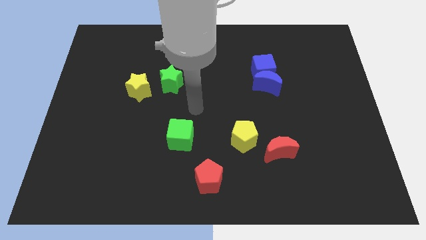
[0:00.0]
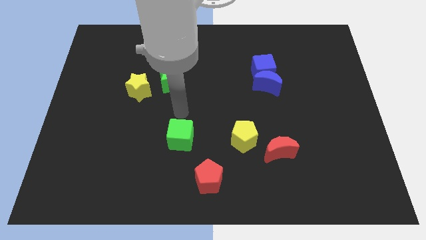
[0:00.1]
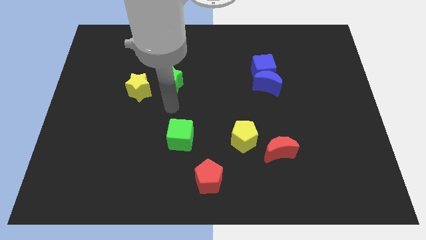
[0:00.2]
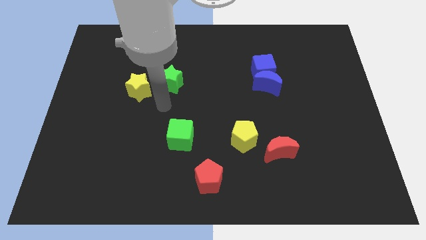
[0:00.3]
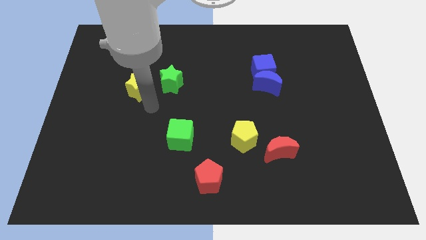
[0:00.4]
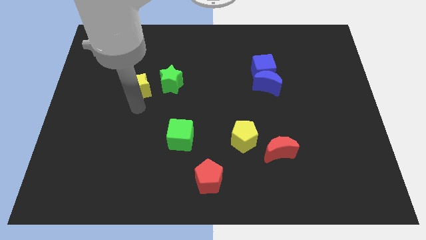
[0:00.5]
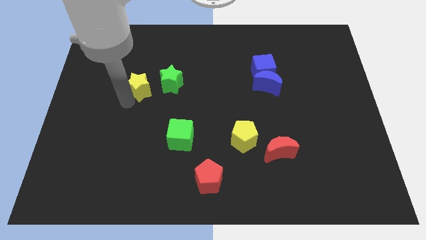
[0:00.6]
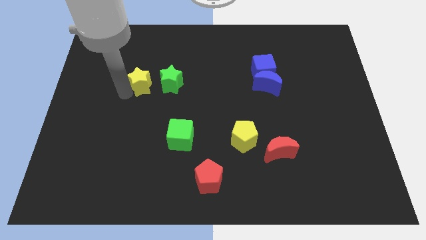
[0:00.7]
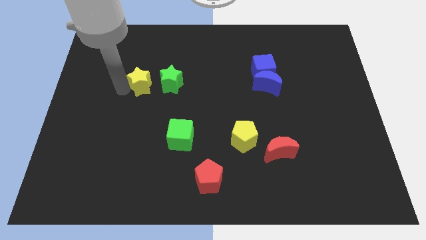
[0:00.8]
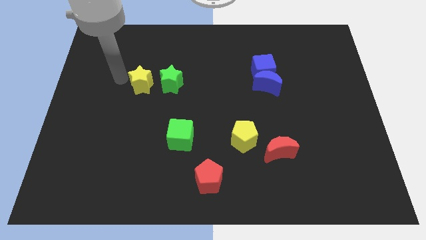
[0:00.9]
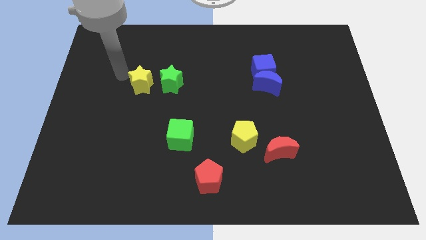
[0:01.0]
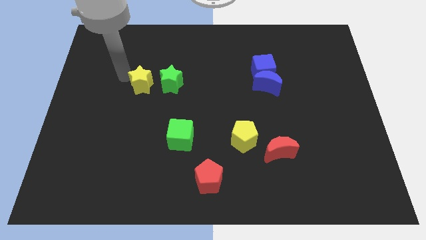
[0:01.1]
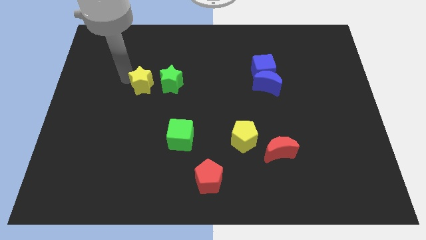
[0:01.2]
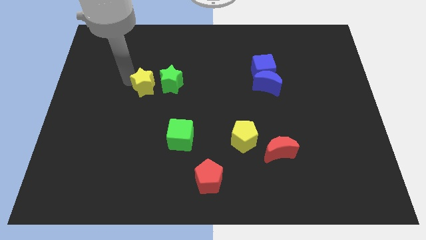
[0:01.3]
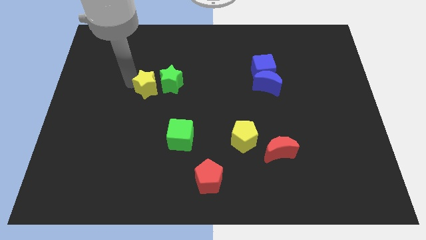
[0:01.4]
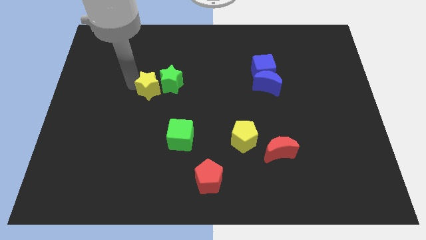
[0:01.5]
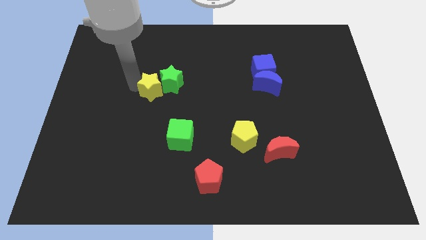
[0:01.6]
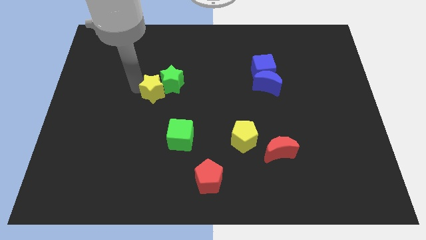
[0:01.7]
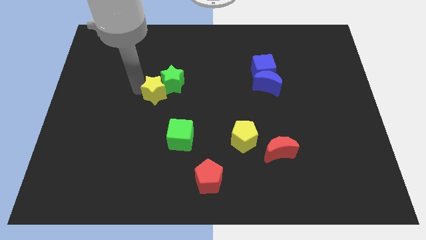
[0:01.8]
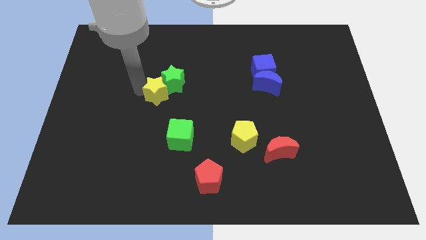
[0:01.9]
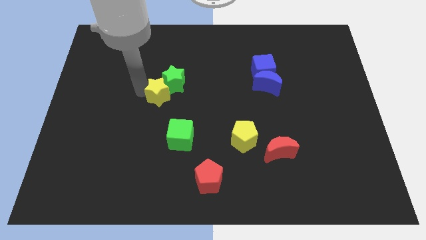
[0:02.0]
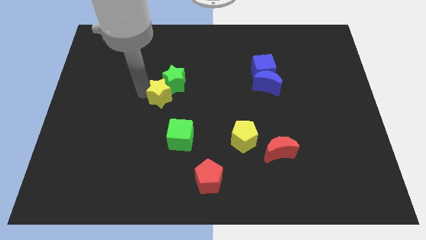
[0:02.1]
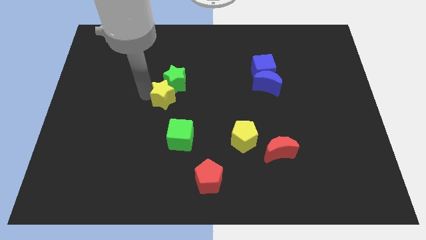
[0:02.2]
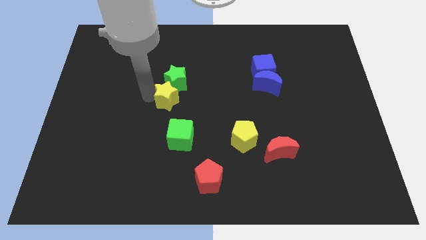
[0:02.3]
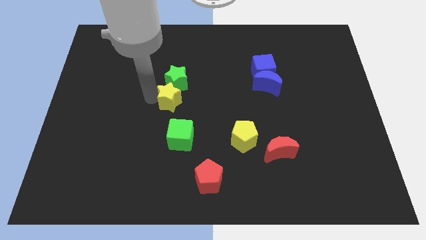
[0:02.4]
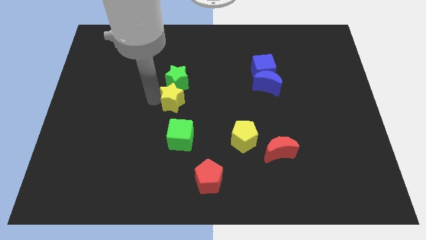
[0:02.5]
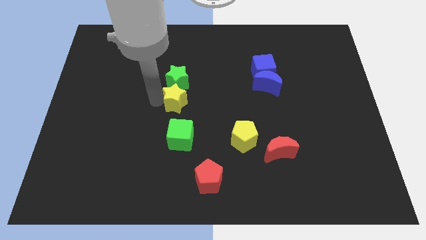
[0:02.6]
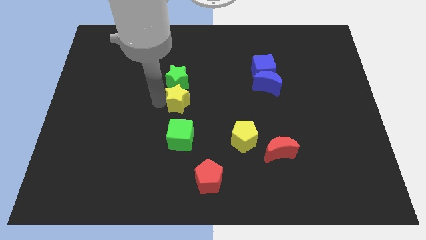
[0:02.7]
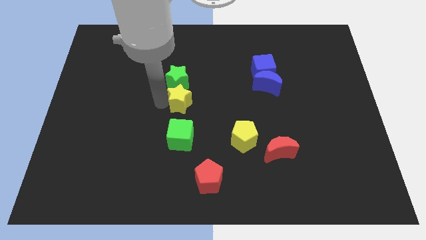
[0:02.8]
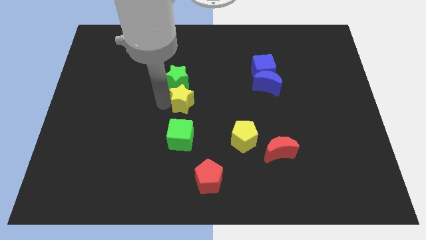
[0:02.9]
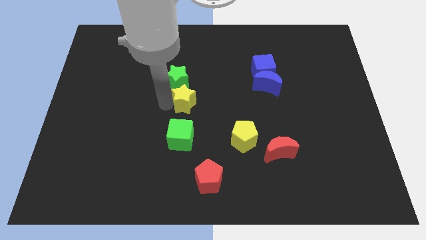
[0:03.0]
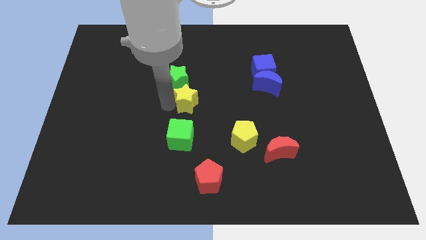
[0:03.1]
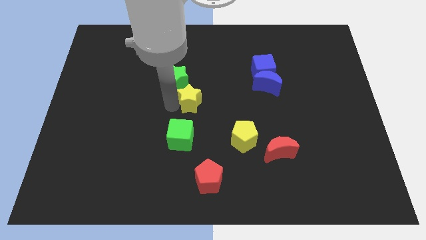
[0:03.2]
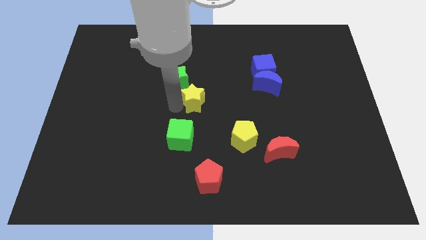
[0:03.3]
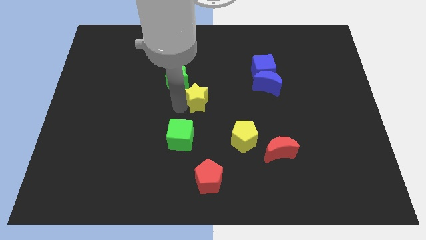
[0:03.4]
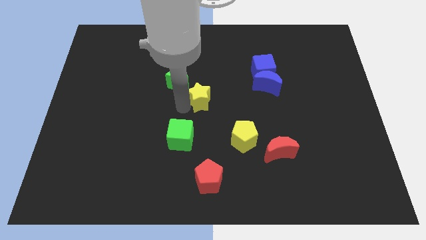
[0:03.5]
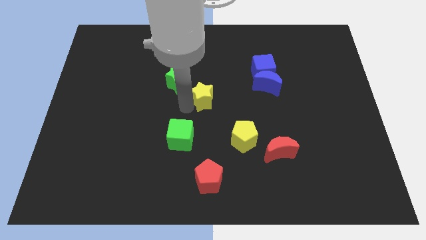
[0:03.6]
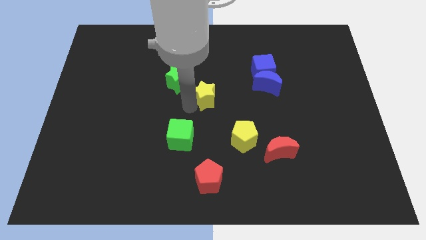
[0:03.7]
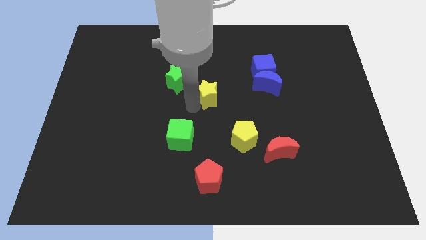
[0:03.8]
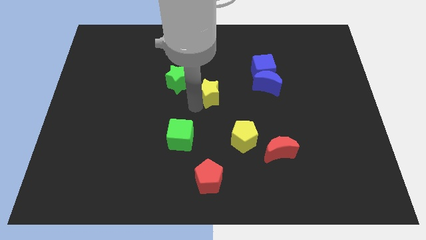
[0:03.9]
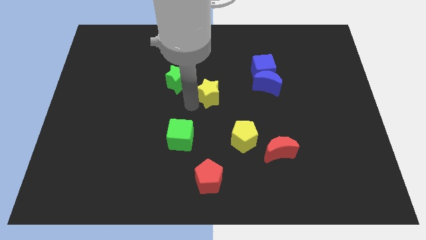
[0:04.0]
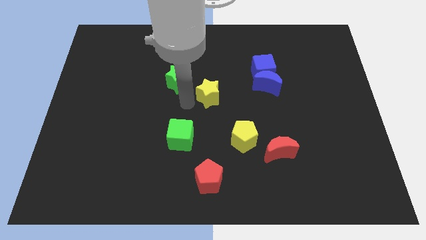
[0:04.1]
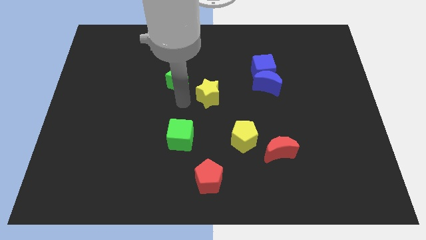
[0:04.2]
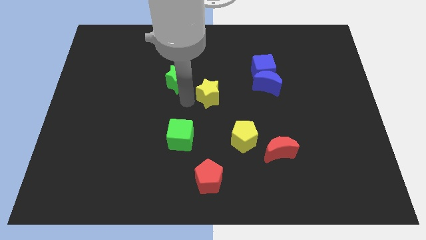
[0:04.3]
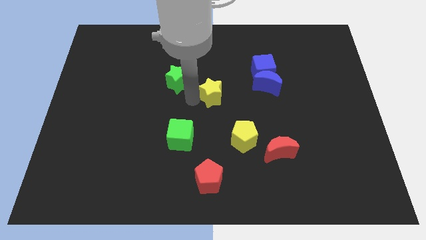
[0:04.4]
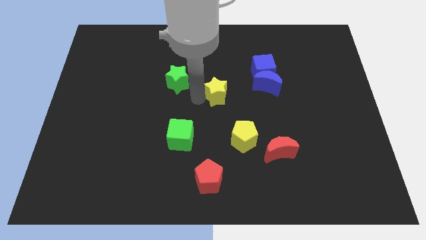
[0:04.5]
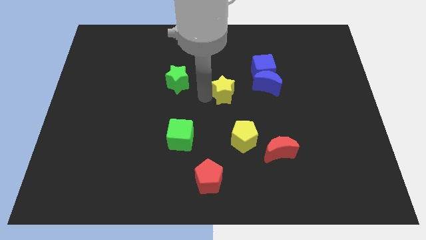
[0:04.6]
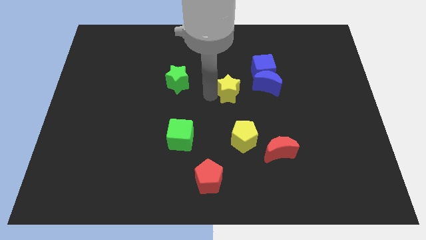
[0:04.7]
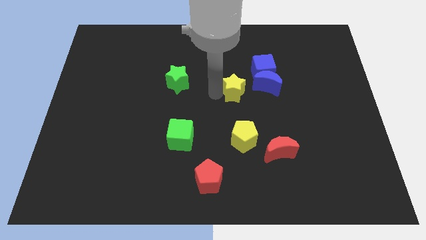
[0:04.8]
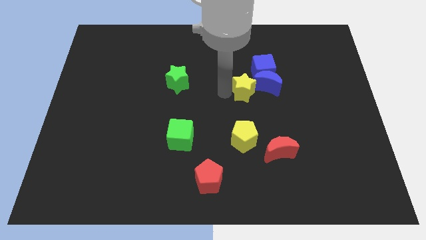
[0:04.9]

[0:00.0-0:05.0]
move the yellow star towards the blue moon

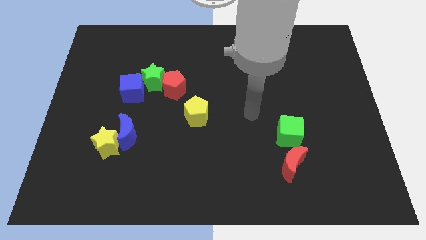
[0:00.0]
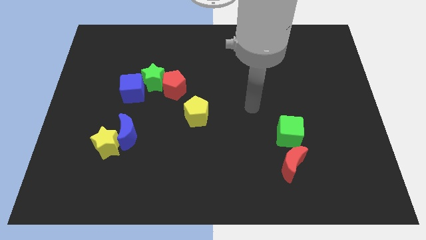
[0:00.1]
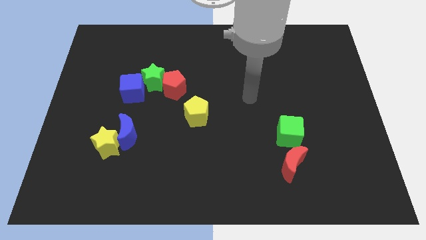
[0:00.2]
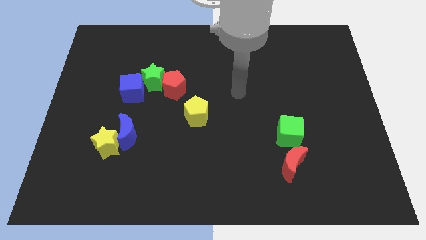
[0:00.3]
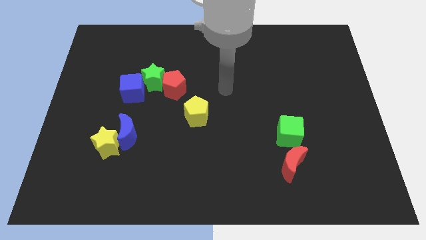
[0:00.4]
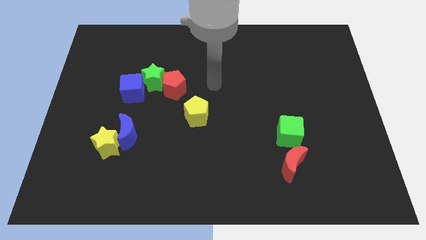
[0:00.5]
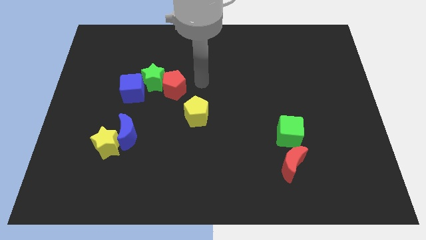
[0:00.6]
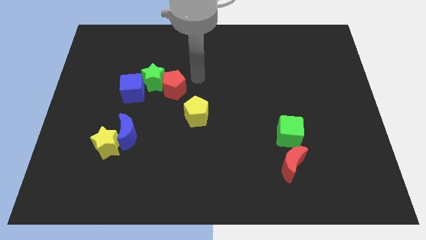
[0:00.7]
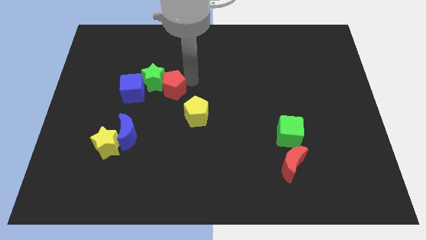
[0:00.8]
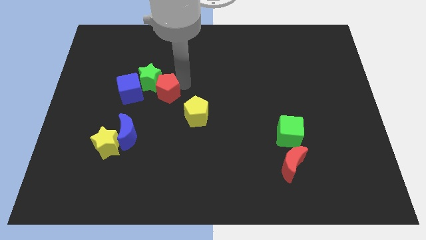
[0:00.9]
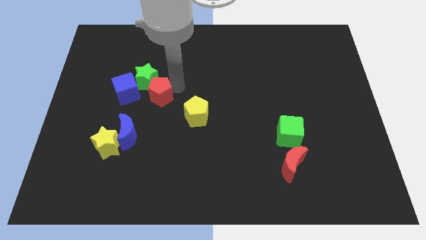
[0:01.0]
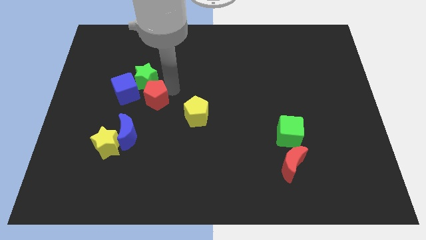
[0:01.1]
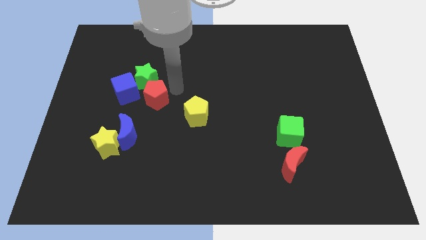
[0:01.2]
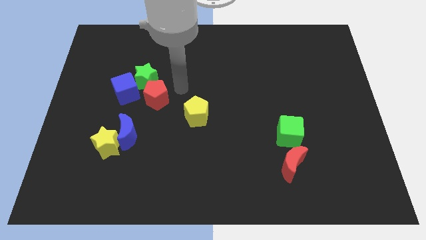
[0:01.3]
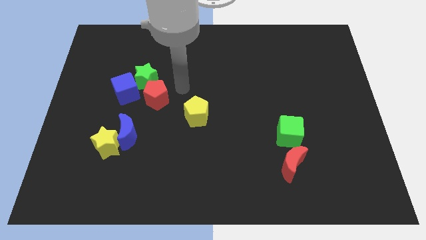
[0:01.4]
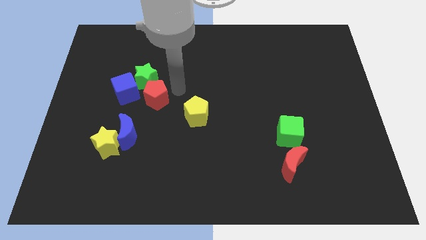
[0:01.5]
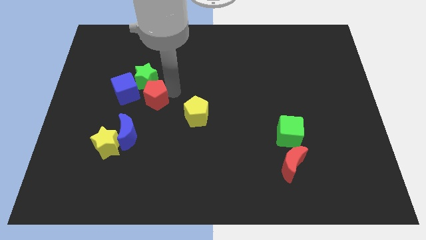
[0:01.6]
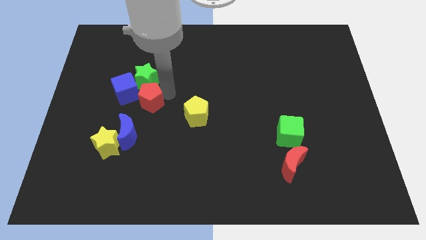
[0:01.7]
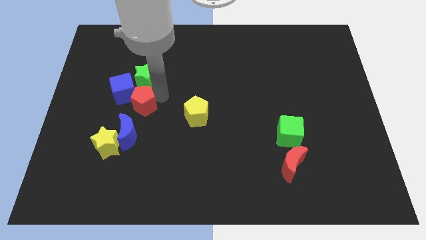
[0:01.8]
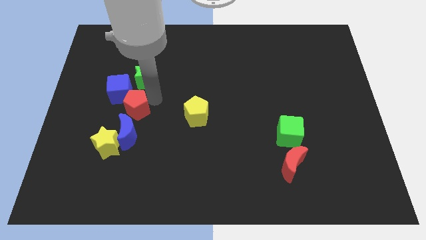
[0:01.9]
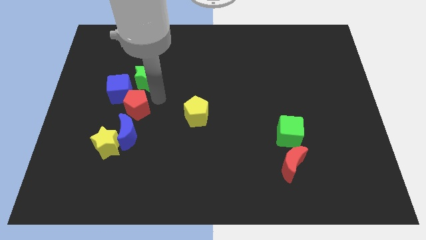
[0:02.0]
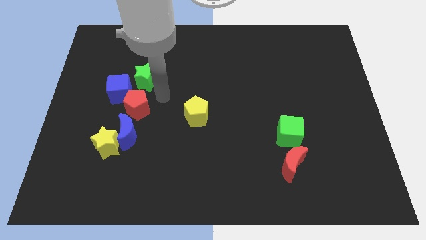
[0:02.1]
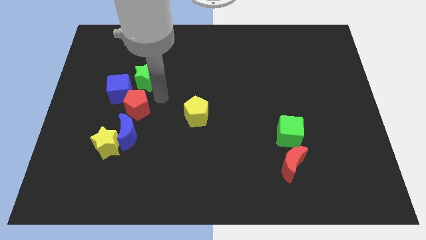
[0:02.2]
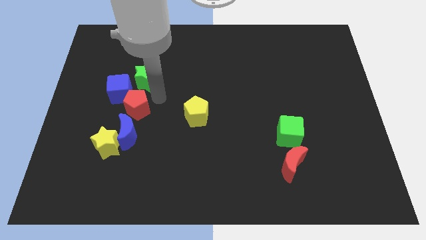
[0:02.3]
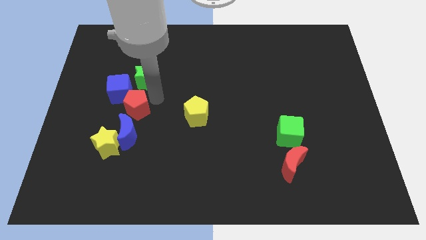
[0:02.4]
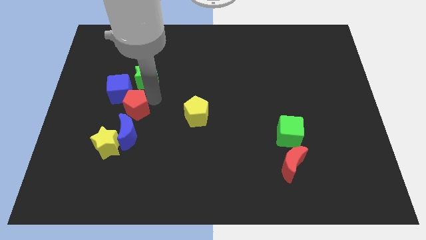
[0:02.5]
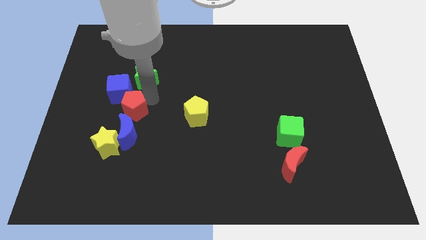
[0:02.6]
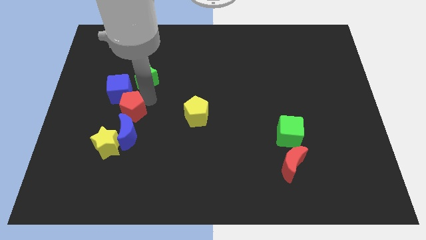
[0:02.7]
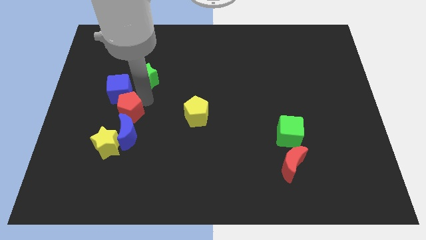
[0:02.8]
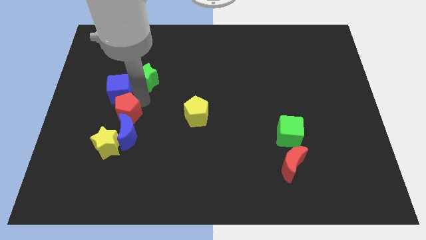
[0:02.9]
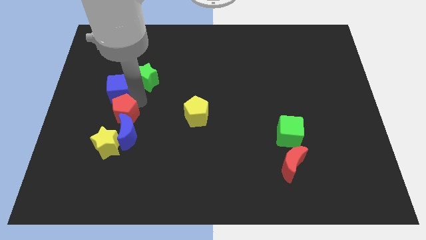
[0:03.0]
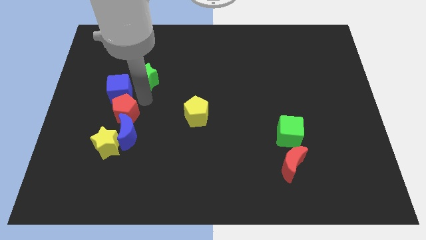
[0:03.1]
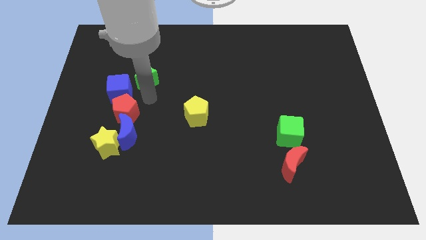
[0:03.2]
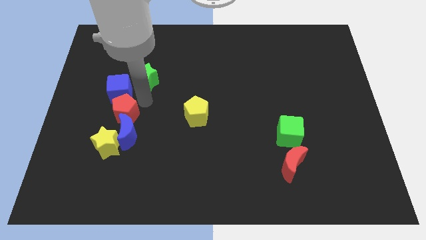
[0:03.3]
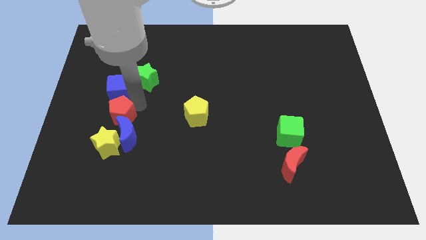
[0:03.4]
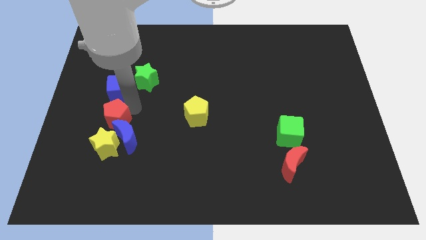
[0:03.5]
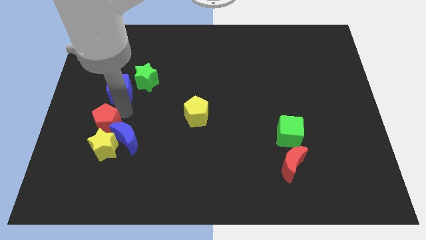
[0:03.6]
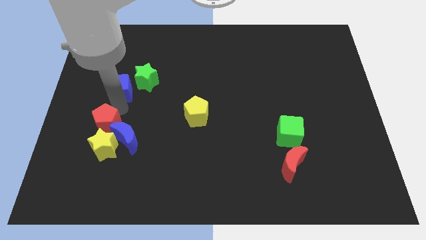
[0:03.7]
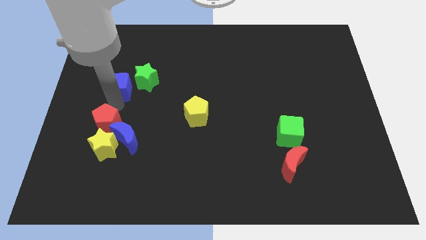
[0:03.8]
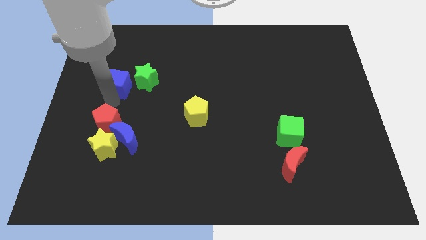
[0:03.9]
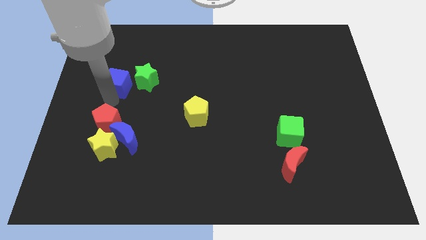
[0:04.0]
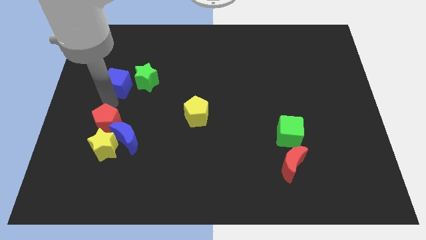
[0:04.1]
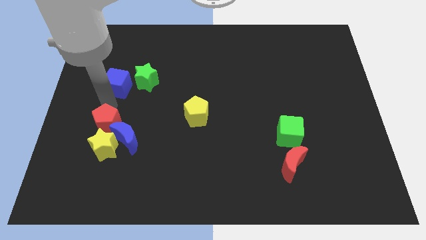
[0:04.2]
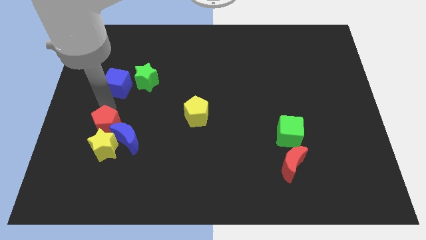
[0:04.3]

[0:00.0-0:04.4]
put the red pentagon close to the yellow star
